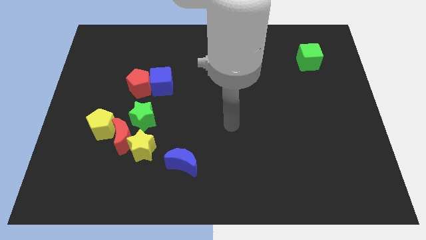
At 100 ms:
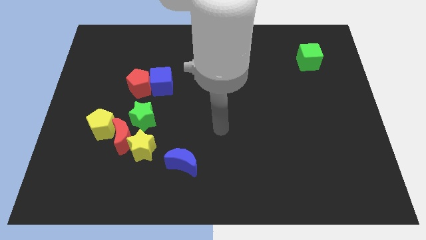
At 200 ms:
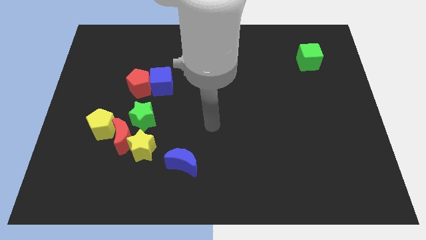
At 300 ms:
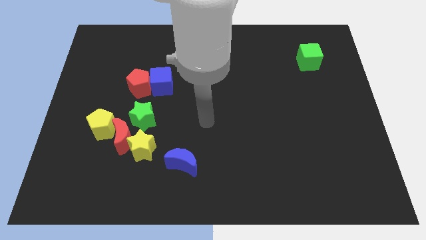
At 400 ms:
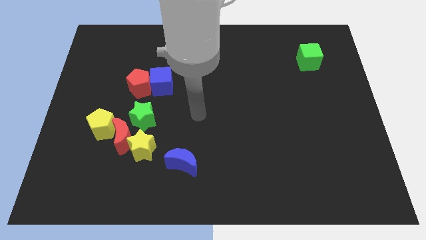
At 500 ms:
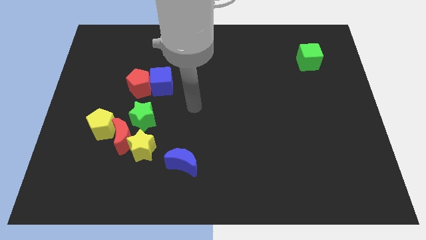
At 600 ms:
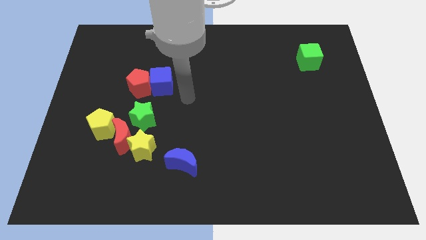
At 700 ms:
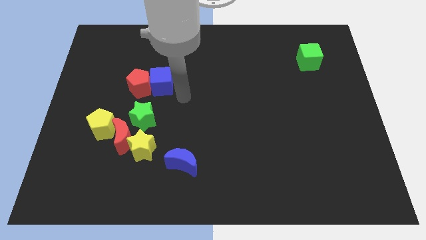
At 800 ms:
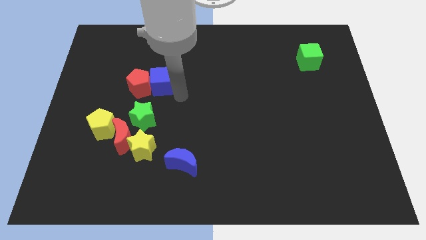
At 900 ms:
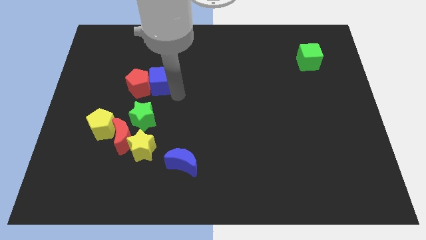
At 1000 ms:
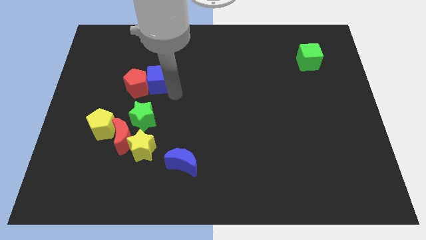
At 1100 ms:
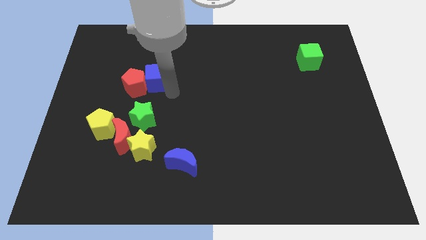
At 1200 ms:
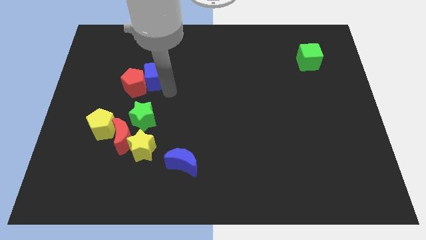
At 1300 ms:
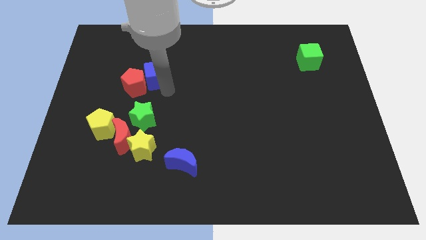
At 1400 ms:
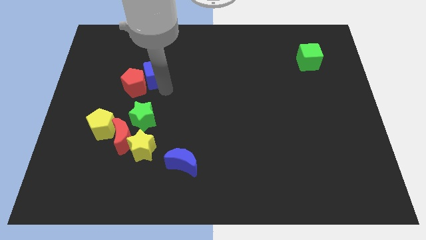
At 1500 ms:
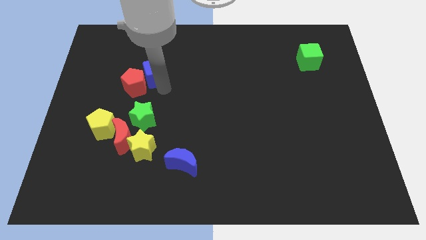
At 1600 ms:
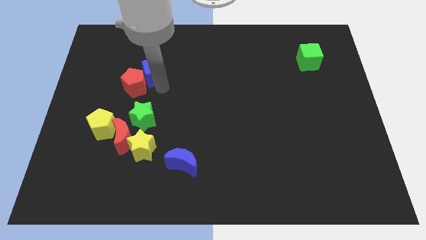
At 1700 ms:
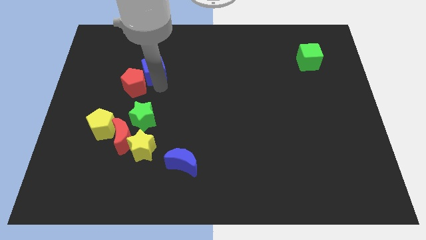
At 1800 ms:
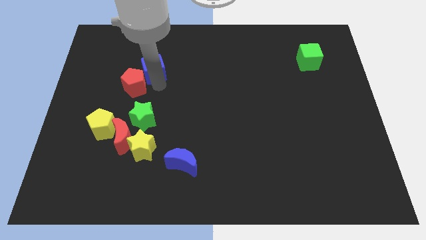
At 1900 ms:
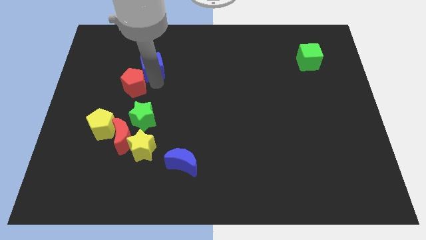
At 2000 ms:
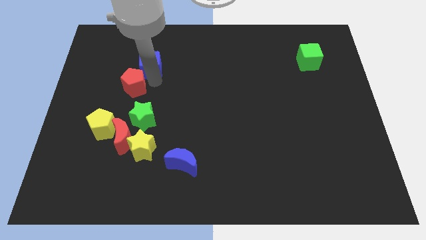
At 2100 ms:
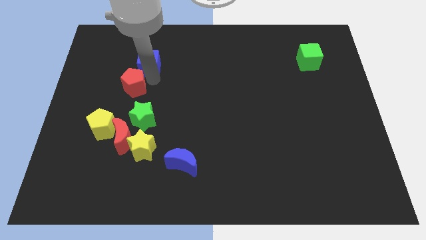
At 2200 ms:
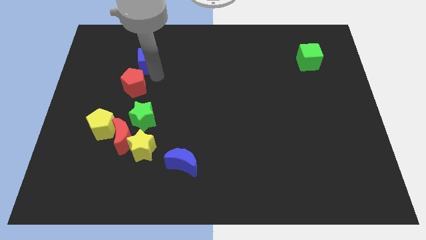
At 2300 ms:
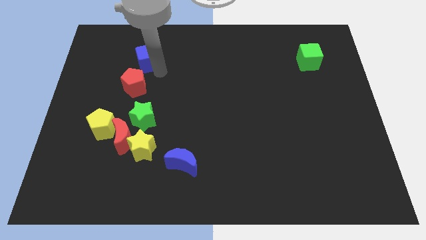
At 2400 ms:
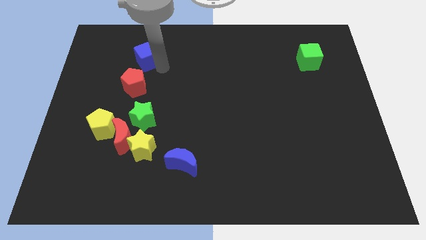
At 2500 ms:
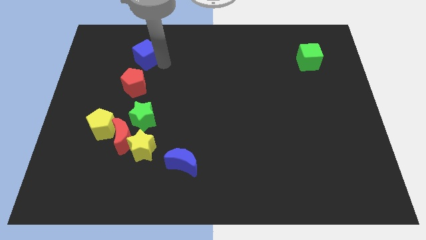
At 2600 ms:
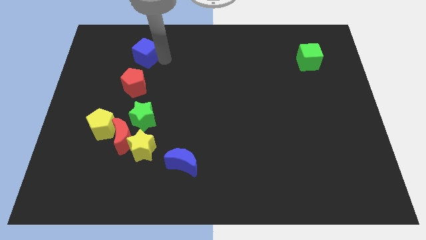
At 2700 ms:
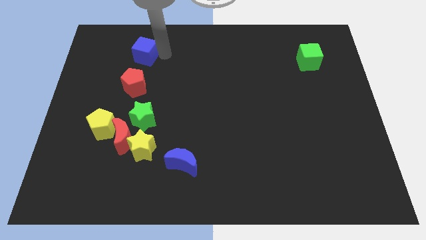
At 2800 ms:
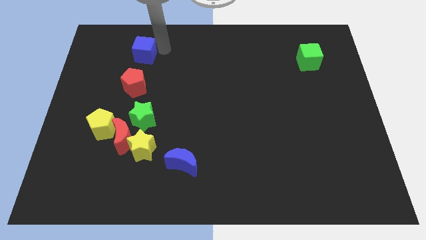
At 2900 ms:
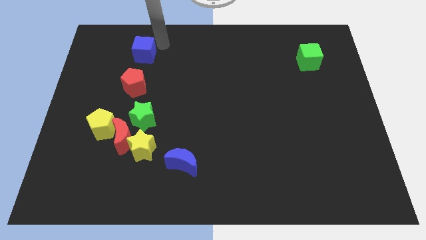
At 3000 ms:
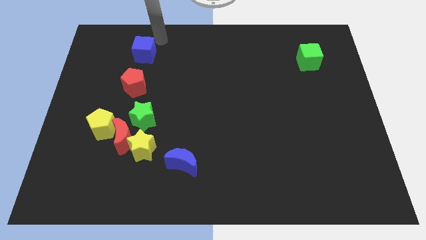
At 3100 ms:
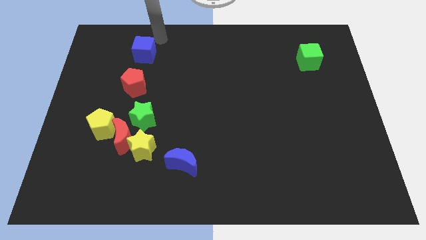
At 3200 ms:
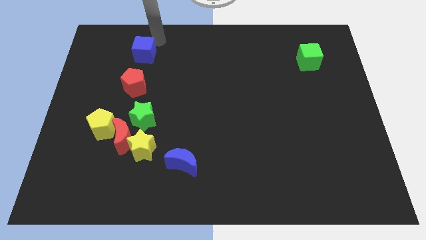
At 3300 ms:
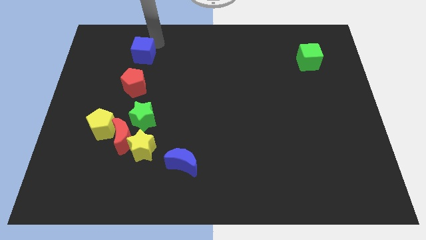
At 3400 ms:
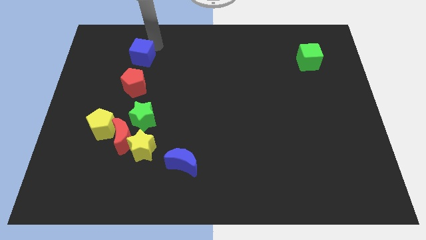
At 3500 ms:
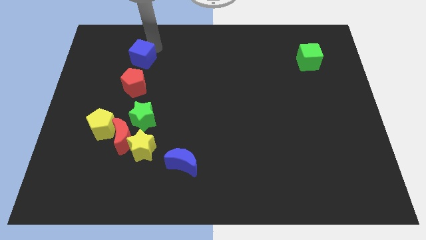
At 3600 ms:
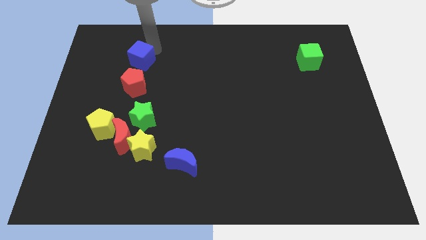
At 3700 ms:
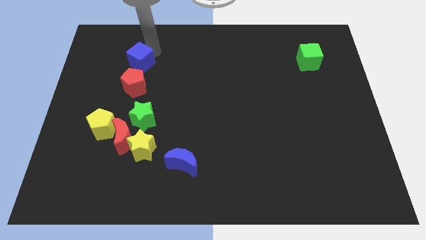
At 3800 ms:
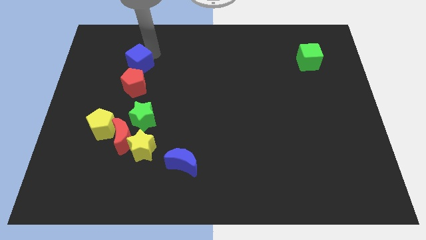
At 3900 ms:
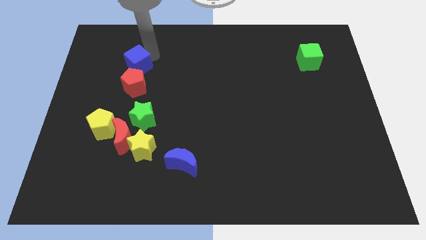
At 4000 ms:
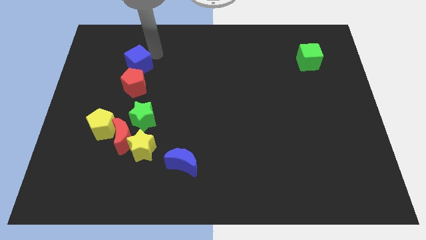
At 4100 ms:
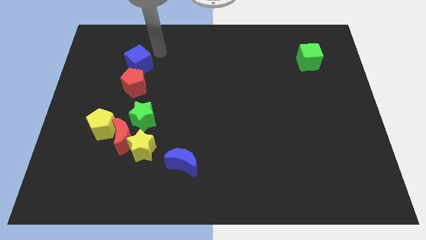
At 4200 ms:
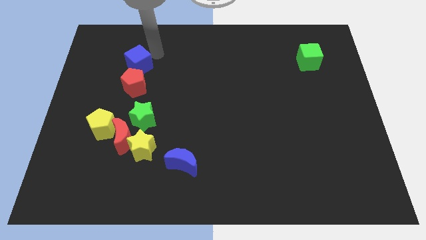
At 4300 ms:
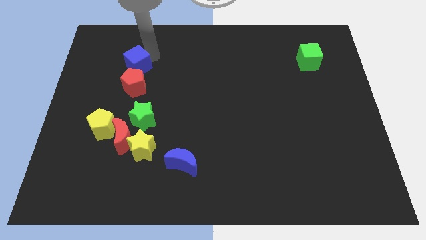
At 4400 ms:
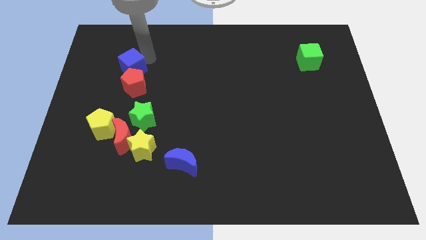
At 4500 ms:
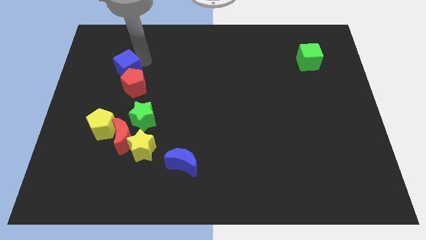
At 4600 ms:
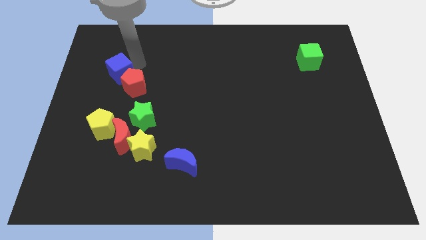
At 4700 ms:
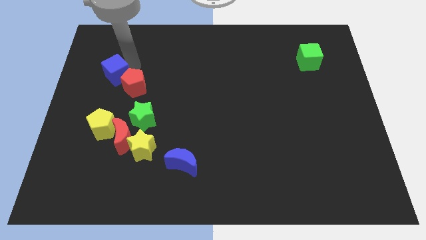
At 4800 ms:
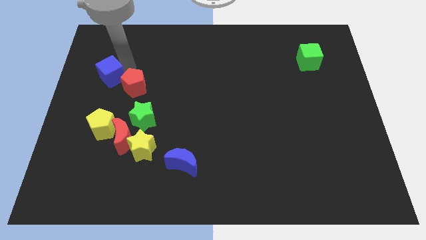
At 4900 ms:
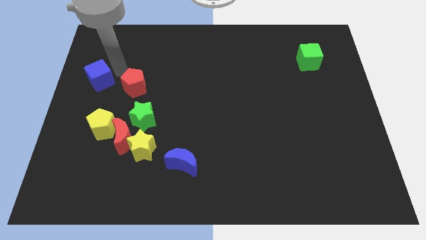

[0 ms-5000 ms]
push the blue cube to the center left
